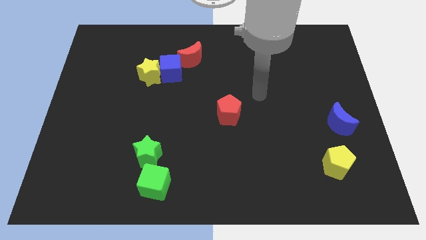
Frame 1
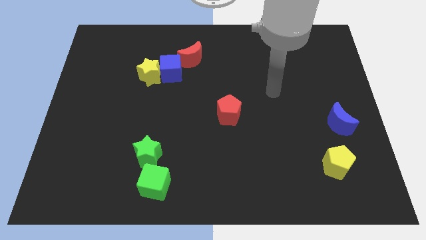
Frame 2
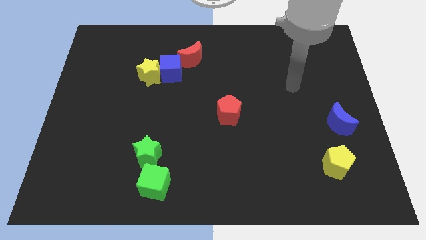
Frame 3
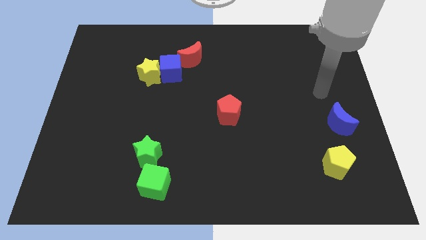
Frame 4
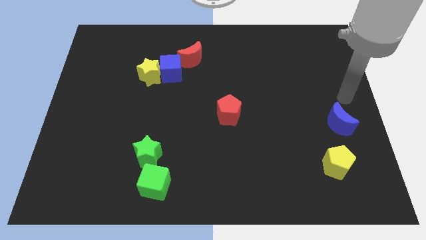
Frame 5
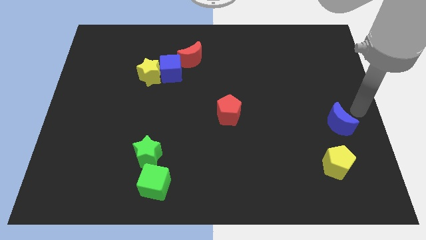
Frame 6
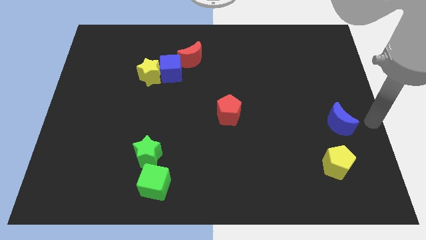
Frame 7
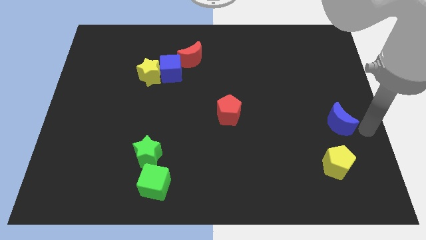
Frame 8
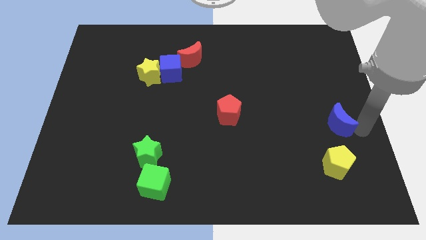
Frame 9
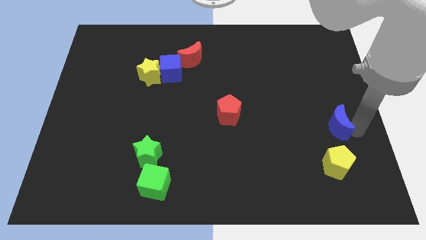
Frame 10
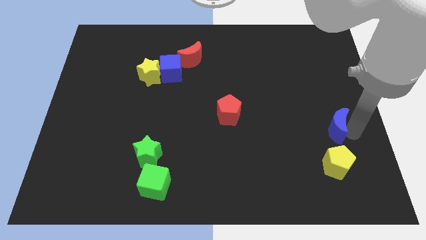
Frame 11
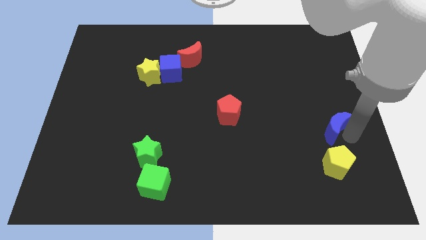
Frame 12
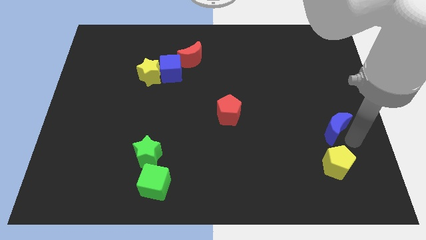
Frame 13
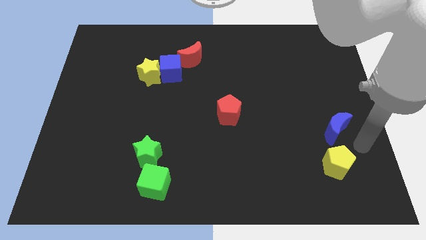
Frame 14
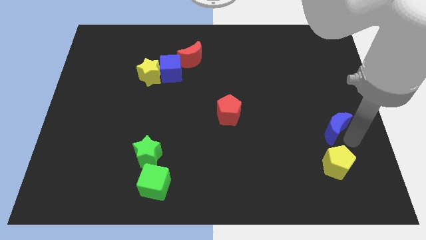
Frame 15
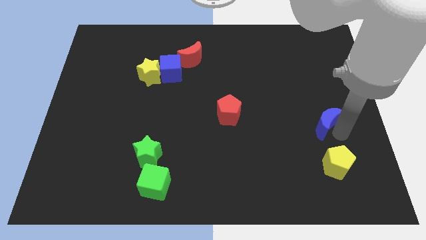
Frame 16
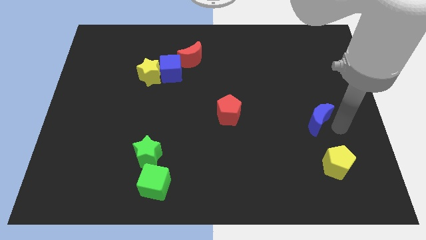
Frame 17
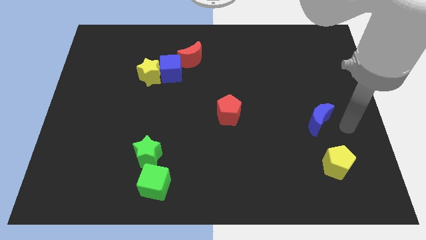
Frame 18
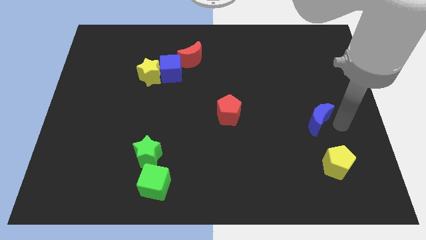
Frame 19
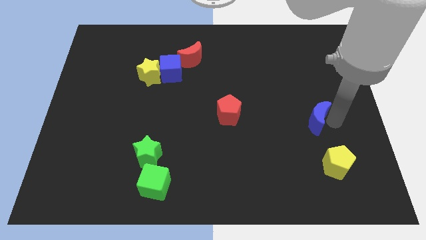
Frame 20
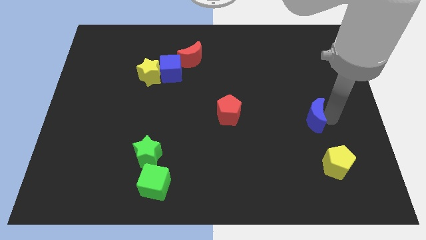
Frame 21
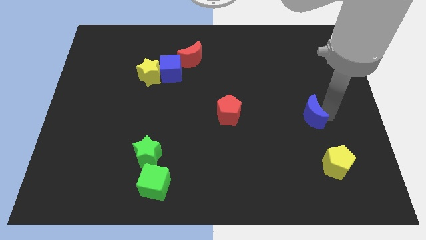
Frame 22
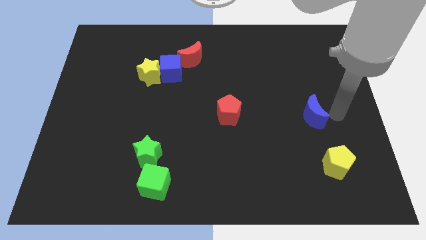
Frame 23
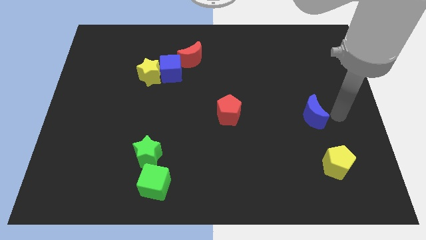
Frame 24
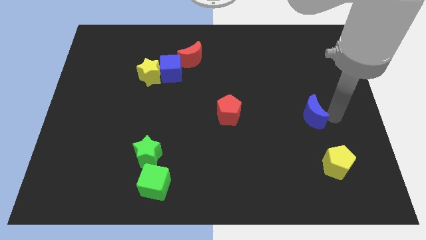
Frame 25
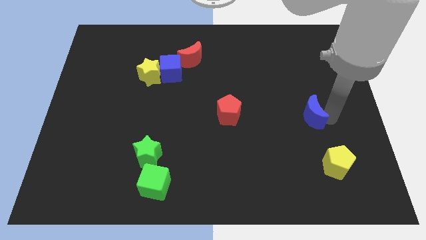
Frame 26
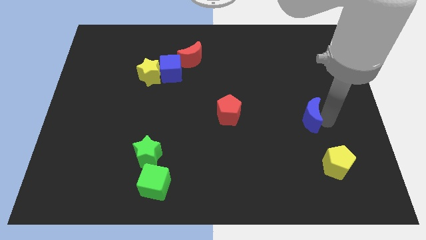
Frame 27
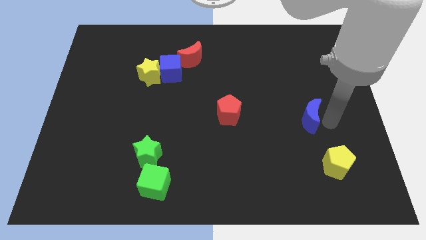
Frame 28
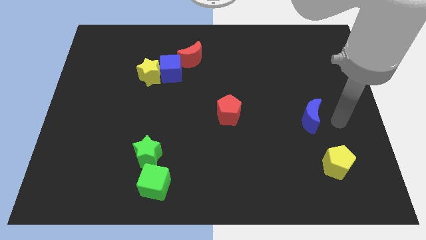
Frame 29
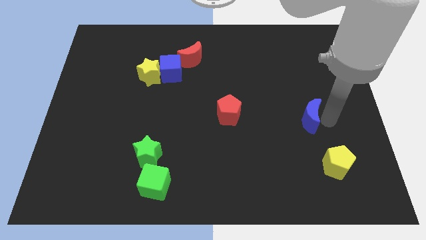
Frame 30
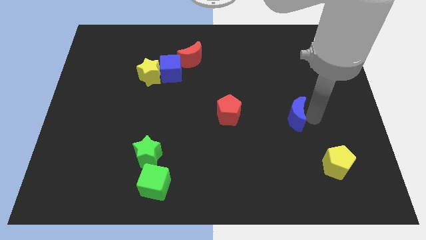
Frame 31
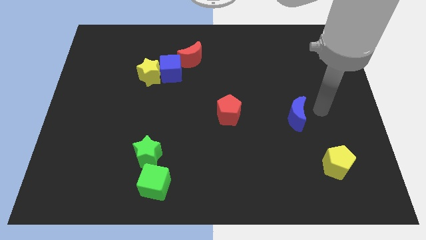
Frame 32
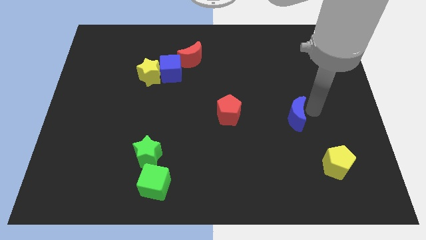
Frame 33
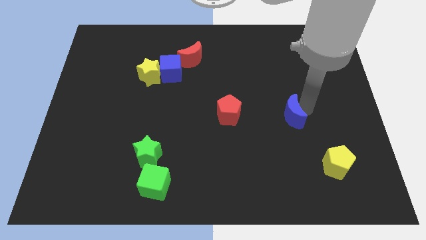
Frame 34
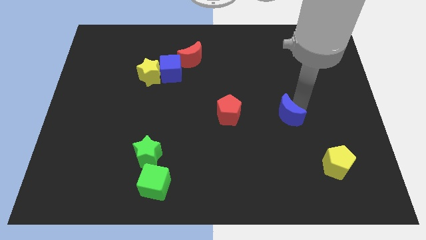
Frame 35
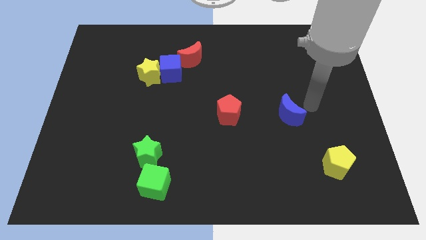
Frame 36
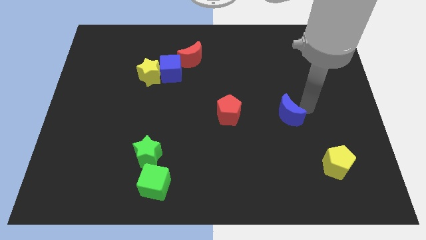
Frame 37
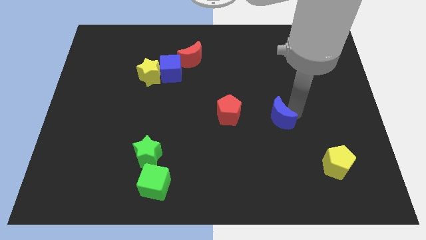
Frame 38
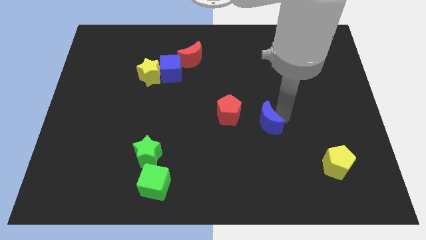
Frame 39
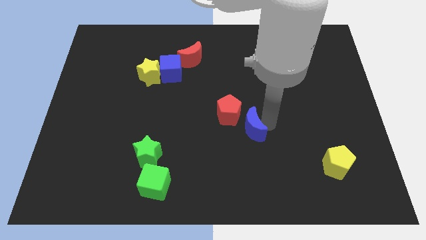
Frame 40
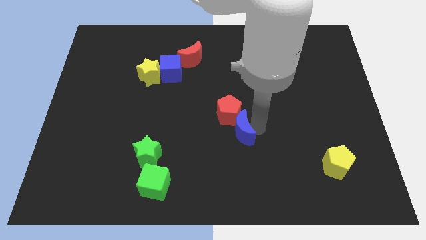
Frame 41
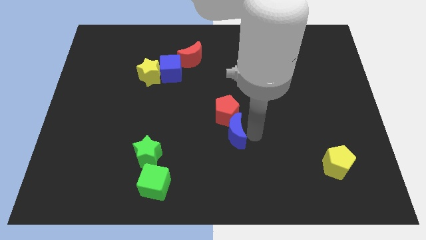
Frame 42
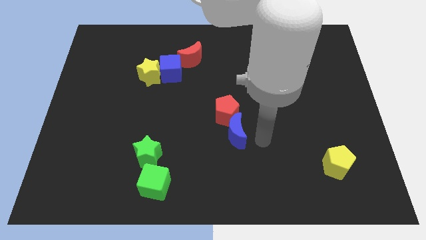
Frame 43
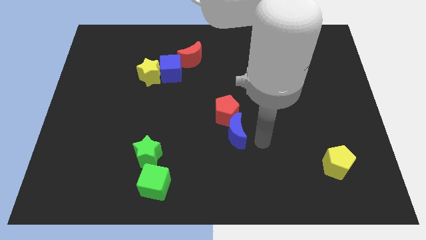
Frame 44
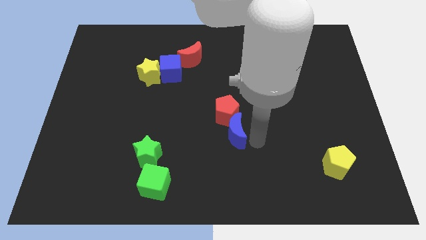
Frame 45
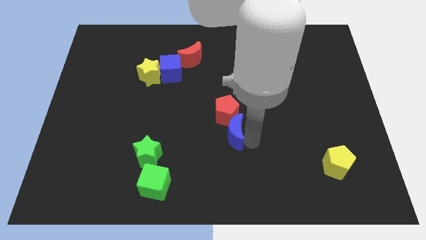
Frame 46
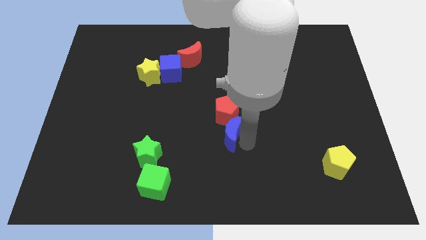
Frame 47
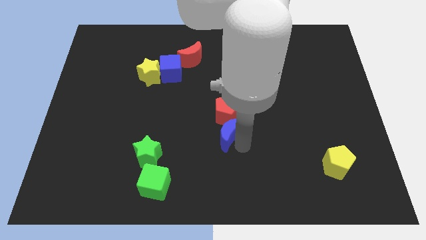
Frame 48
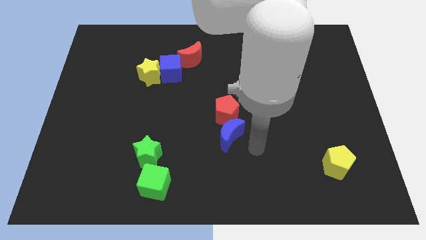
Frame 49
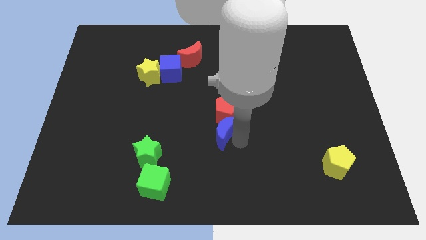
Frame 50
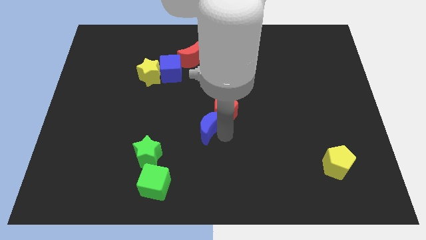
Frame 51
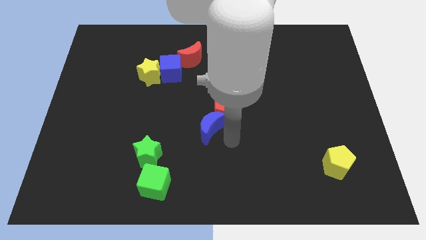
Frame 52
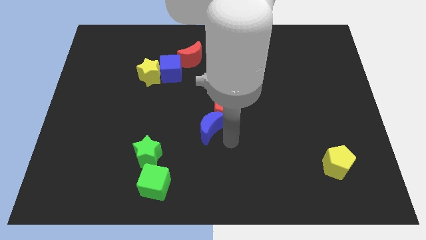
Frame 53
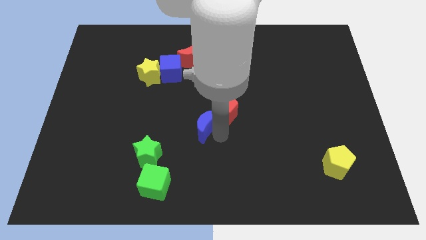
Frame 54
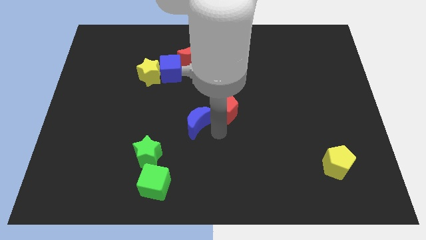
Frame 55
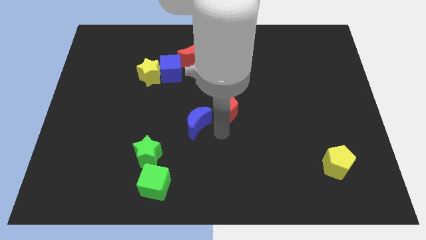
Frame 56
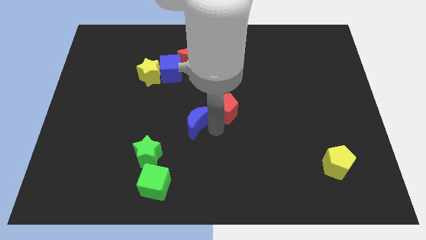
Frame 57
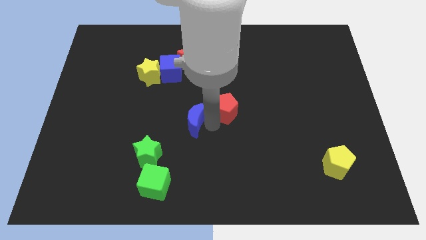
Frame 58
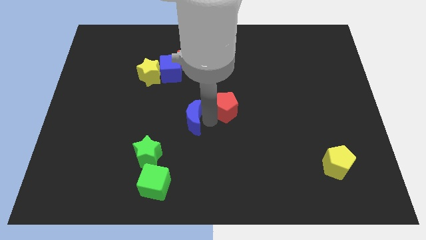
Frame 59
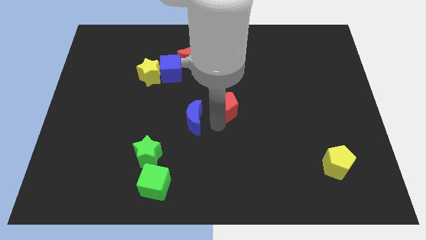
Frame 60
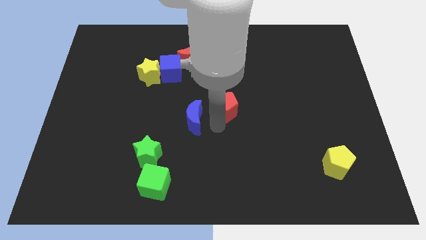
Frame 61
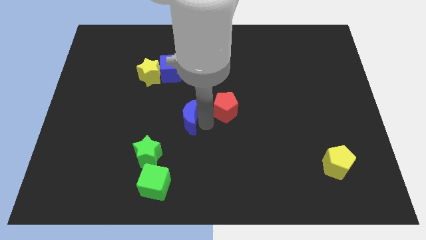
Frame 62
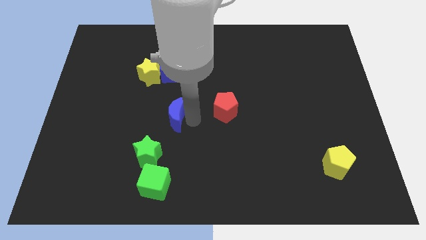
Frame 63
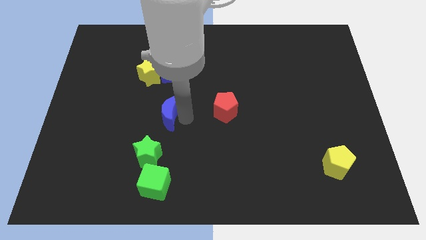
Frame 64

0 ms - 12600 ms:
put the blue moon to the top of the green star

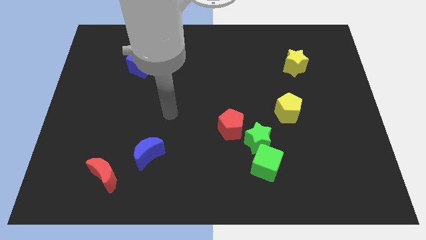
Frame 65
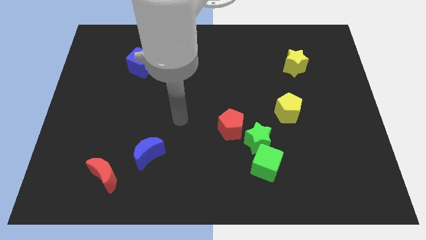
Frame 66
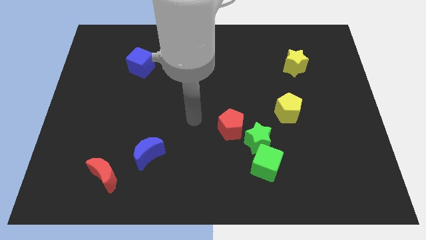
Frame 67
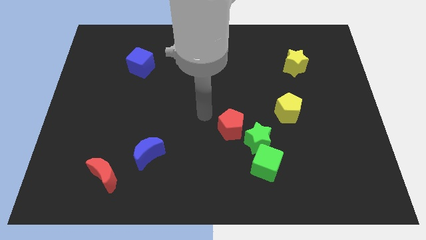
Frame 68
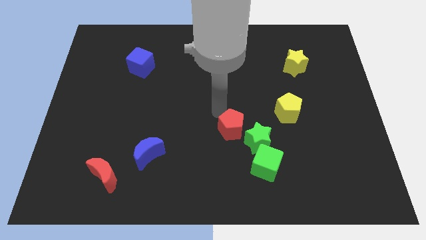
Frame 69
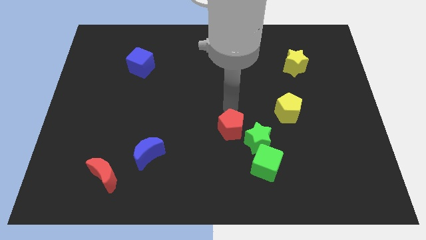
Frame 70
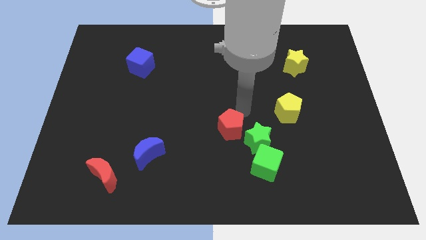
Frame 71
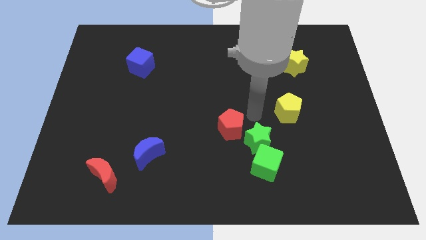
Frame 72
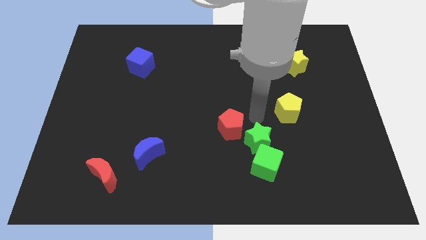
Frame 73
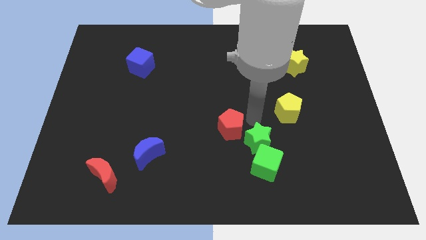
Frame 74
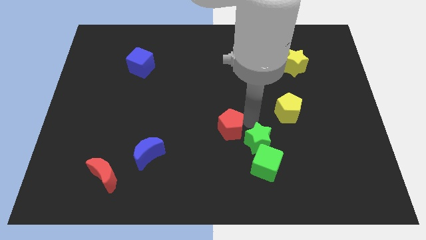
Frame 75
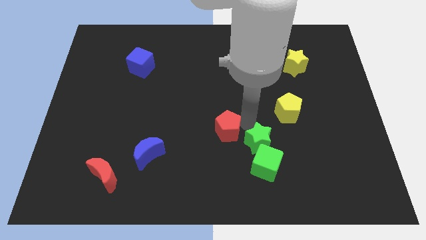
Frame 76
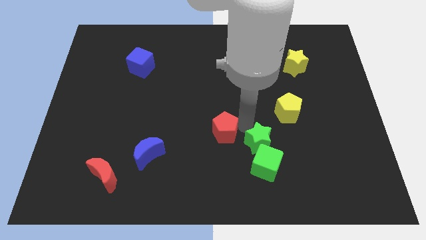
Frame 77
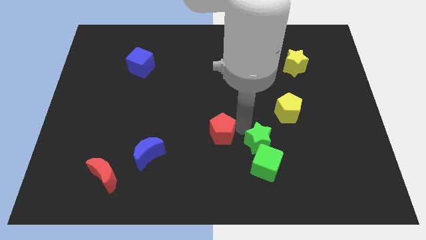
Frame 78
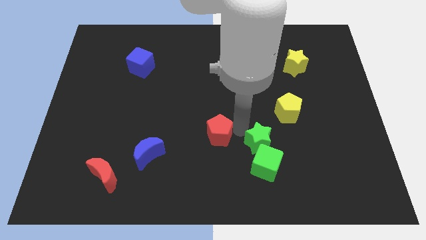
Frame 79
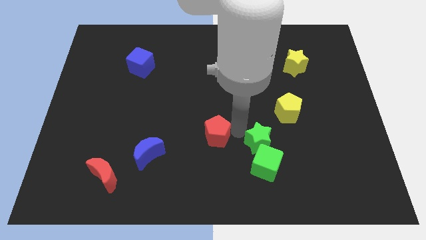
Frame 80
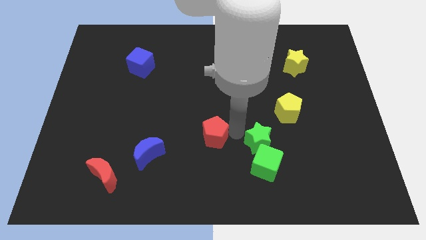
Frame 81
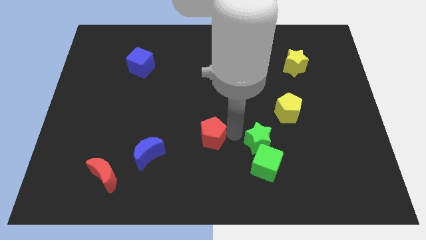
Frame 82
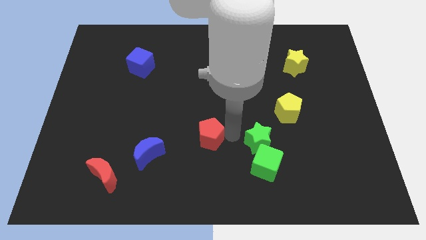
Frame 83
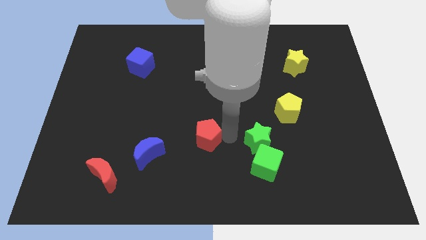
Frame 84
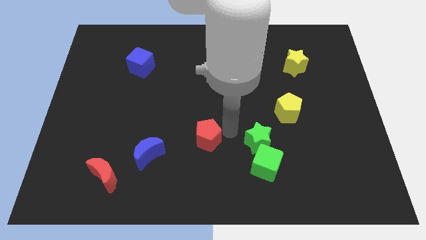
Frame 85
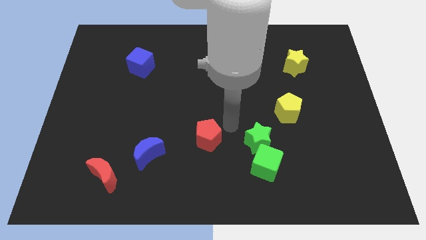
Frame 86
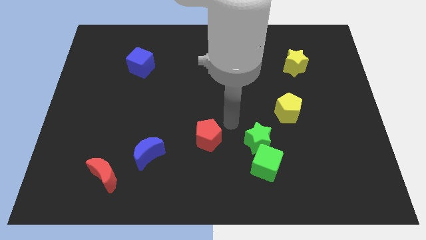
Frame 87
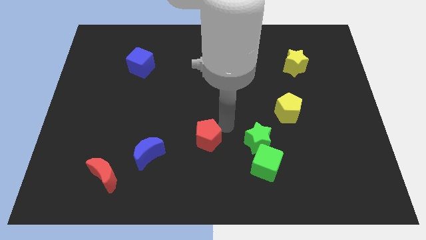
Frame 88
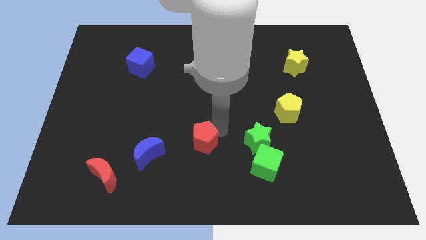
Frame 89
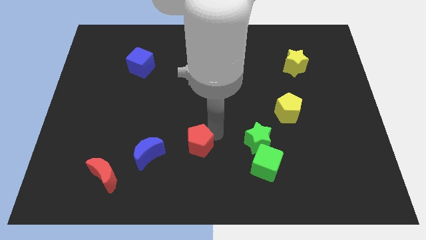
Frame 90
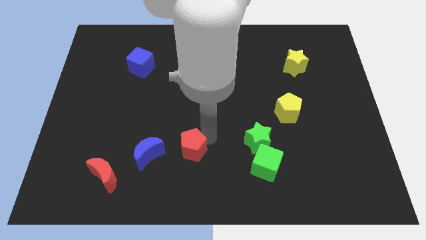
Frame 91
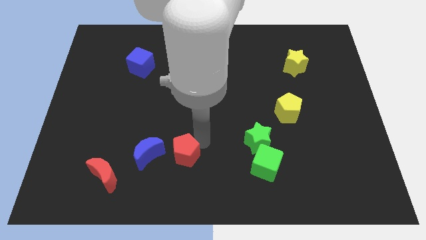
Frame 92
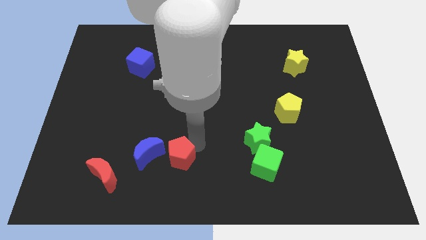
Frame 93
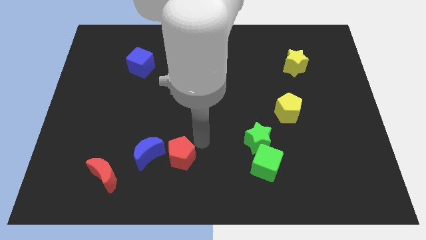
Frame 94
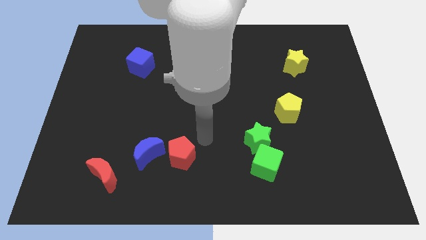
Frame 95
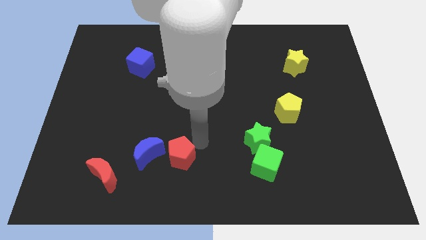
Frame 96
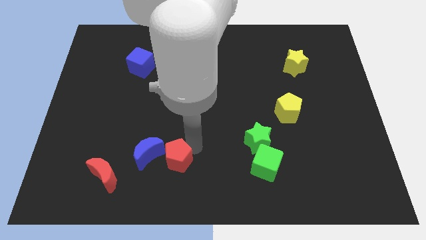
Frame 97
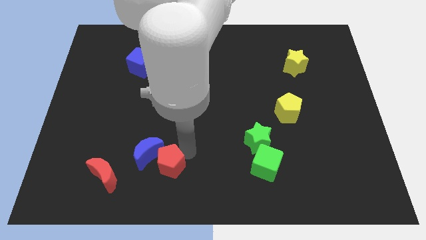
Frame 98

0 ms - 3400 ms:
move the red pentagon to the right side of the red moon
